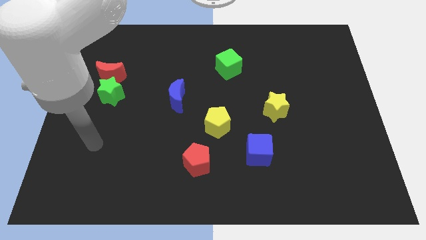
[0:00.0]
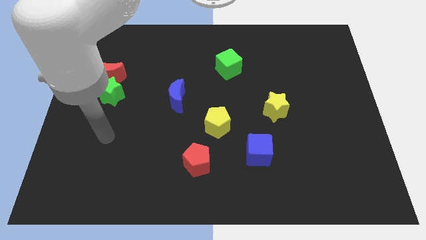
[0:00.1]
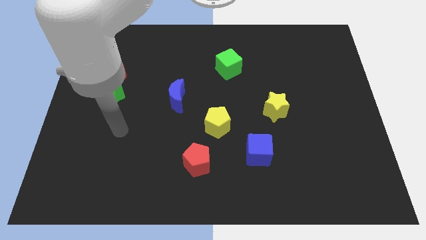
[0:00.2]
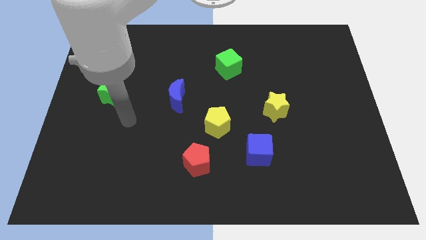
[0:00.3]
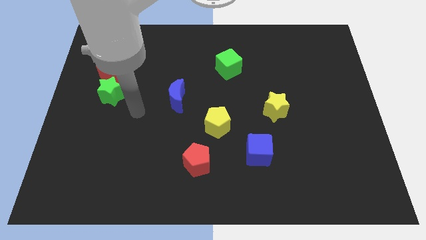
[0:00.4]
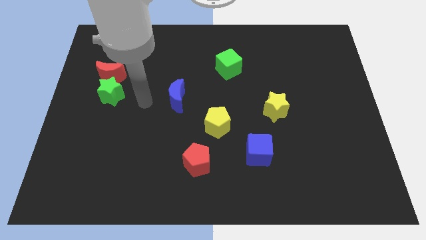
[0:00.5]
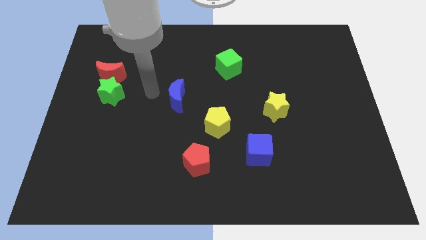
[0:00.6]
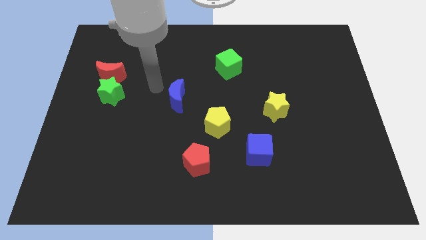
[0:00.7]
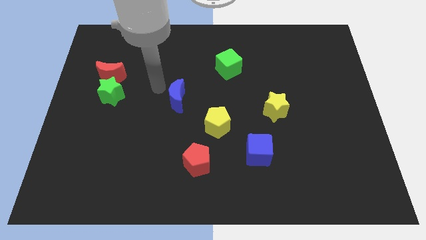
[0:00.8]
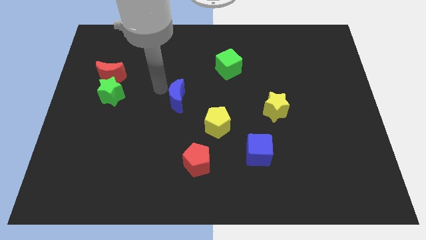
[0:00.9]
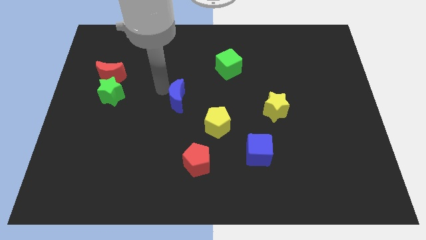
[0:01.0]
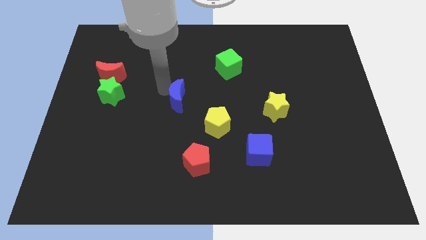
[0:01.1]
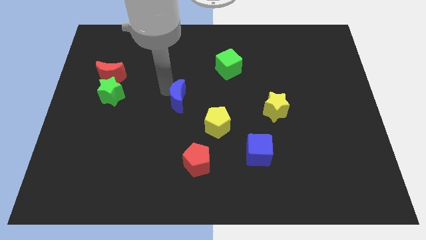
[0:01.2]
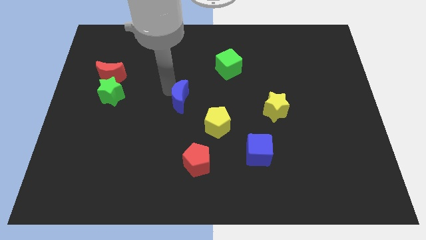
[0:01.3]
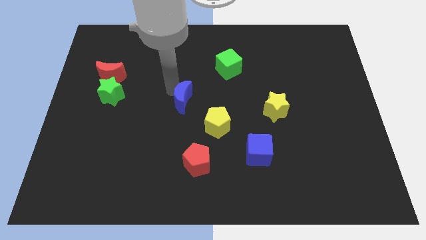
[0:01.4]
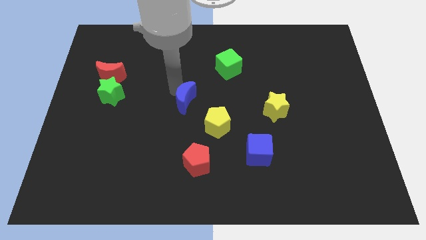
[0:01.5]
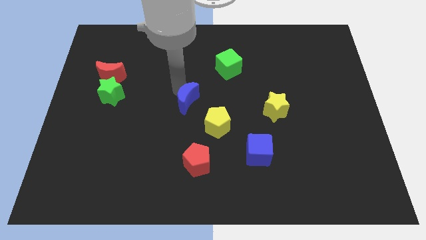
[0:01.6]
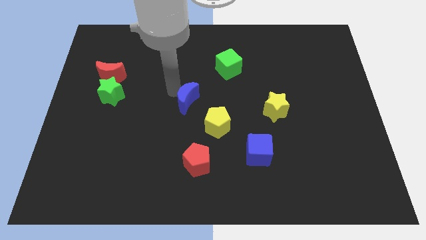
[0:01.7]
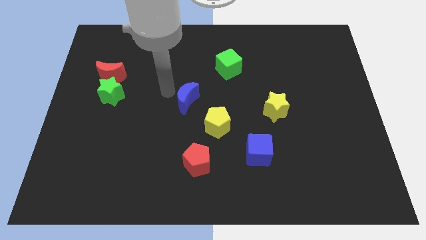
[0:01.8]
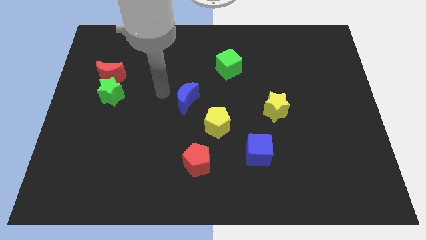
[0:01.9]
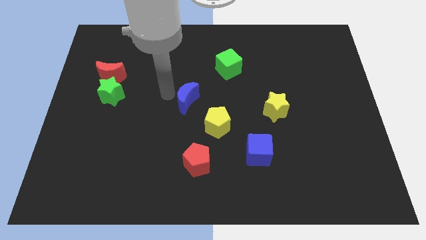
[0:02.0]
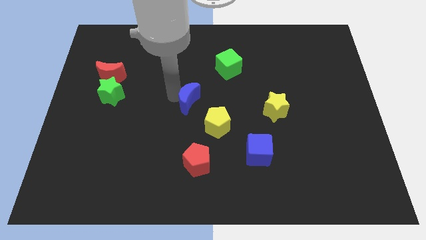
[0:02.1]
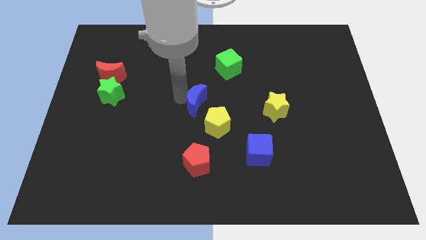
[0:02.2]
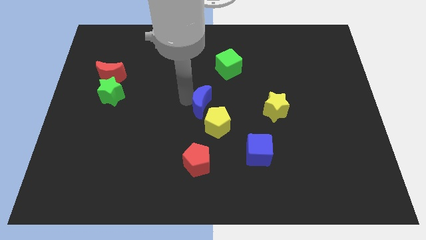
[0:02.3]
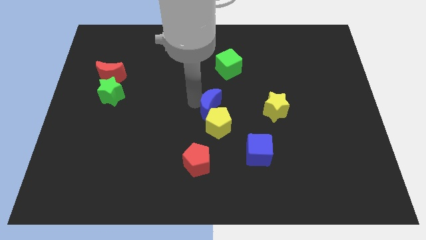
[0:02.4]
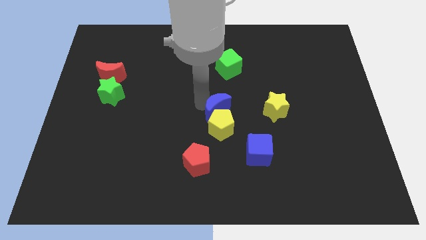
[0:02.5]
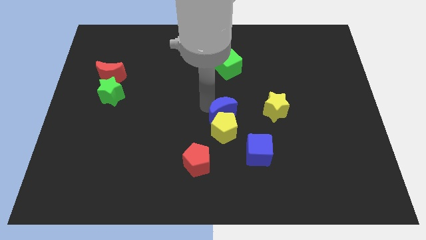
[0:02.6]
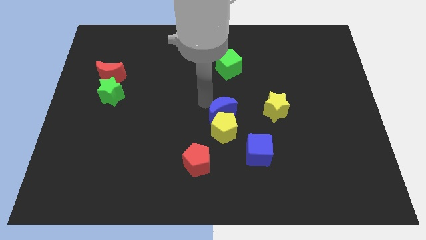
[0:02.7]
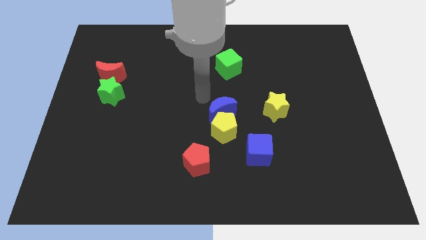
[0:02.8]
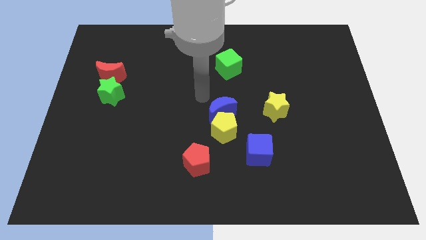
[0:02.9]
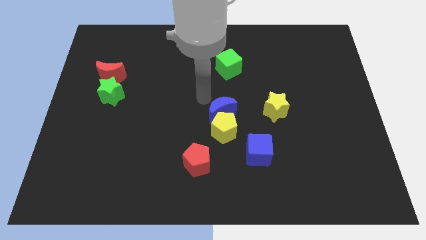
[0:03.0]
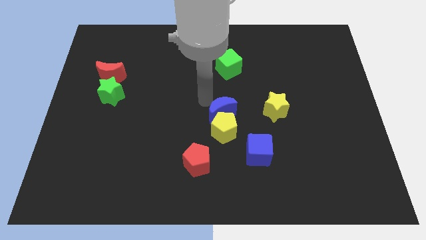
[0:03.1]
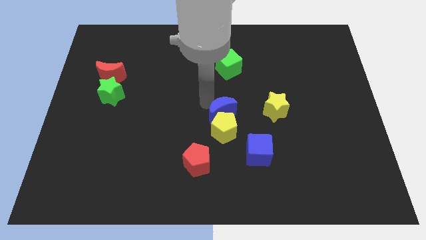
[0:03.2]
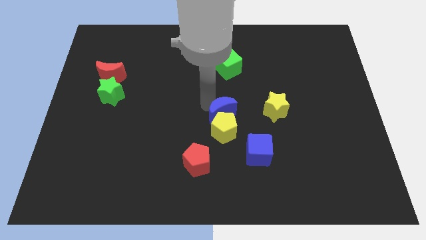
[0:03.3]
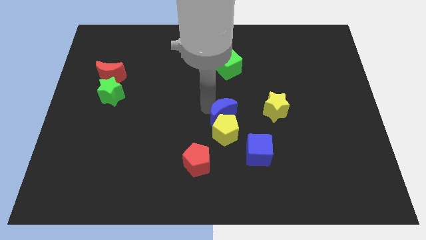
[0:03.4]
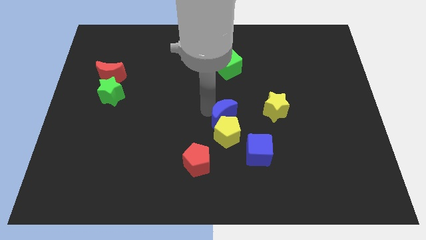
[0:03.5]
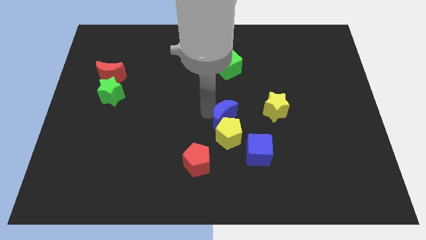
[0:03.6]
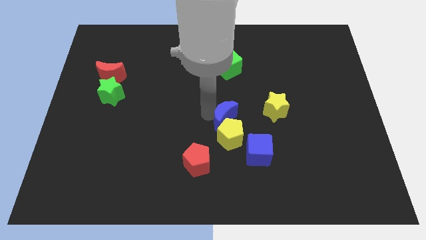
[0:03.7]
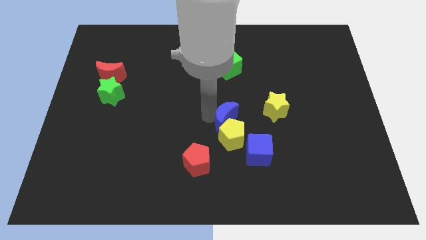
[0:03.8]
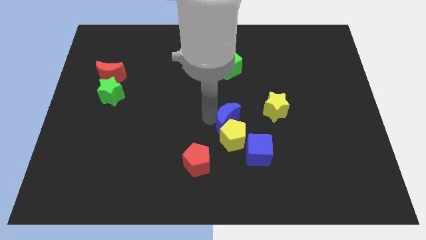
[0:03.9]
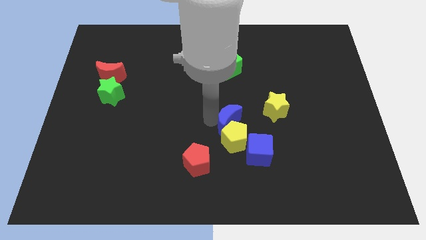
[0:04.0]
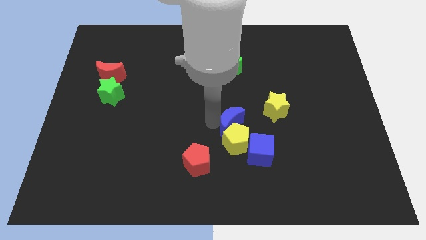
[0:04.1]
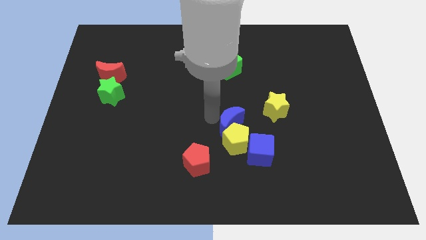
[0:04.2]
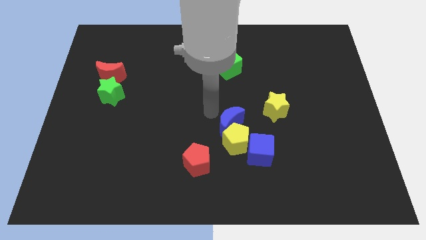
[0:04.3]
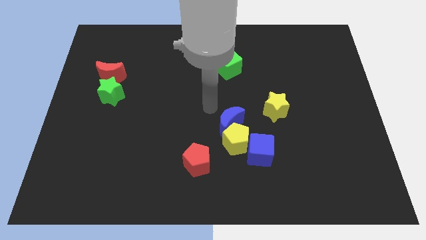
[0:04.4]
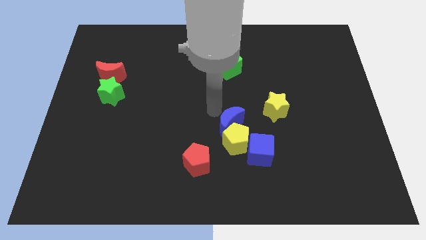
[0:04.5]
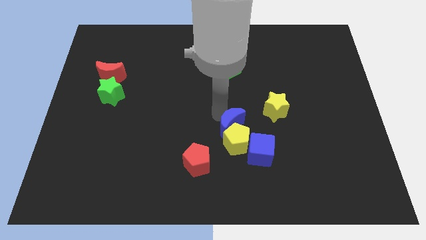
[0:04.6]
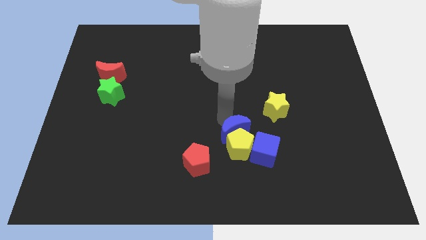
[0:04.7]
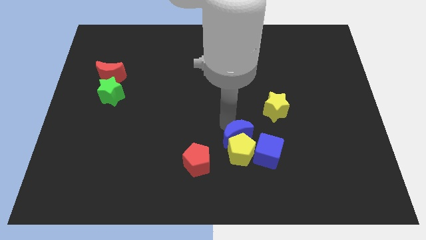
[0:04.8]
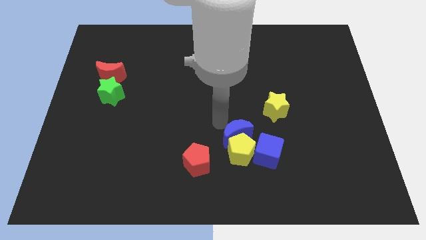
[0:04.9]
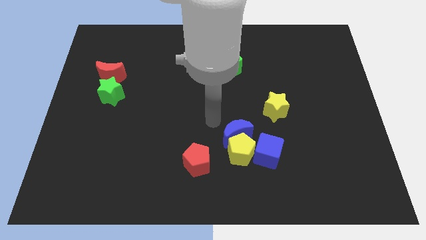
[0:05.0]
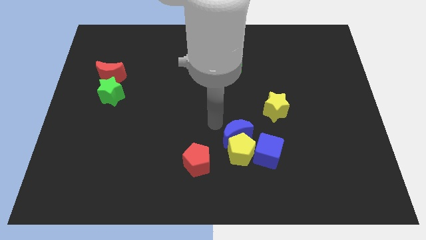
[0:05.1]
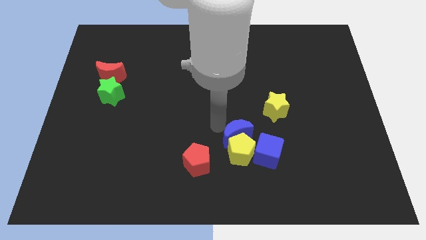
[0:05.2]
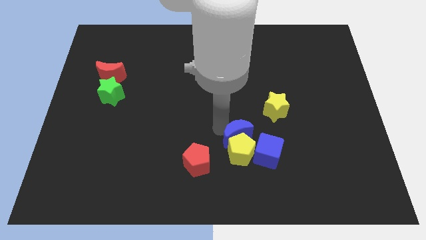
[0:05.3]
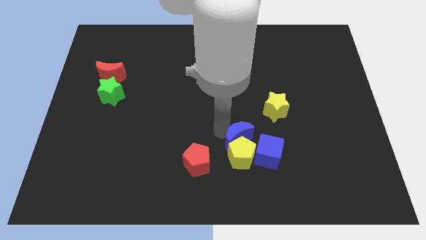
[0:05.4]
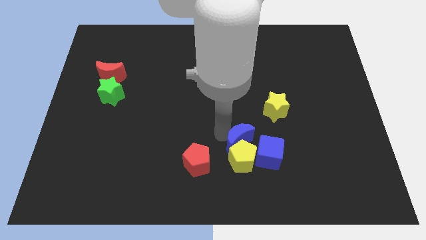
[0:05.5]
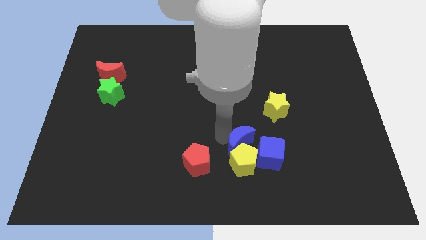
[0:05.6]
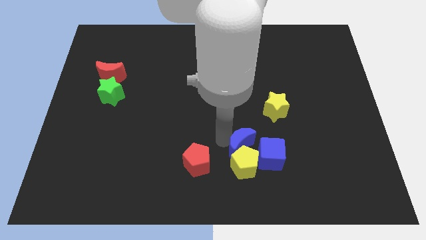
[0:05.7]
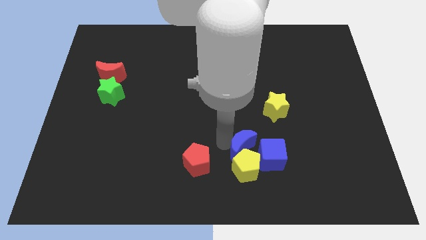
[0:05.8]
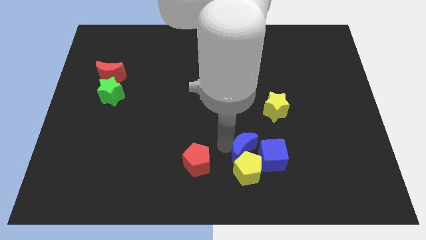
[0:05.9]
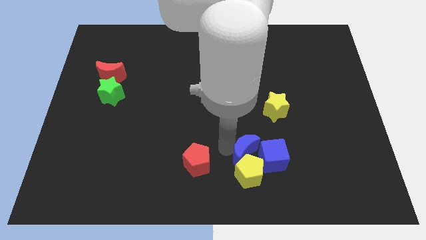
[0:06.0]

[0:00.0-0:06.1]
push the blue moon towards the blue cube

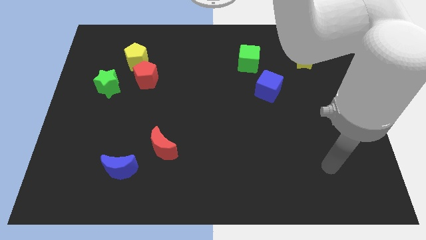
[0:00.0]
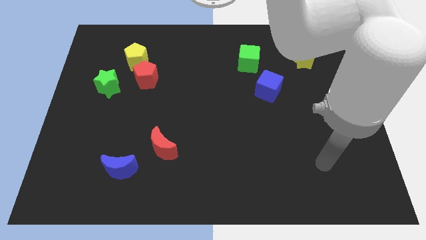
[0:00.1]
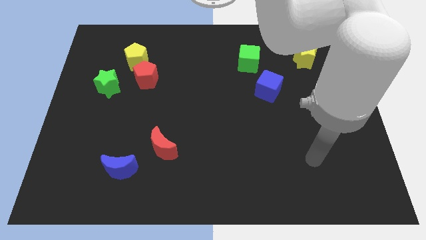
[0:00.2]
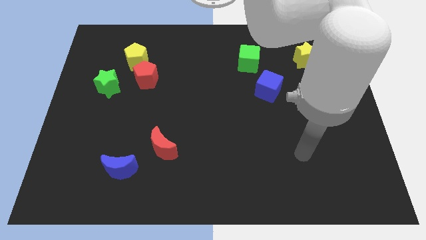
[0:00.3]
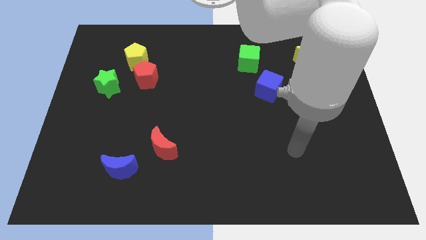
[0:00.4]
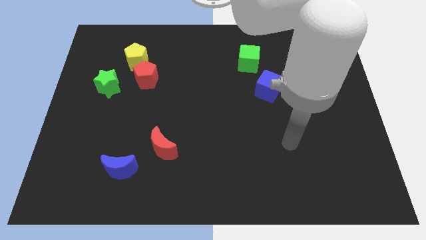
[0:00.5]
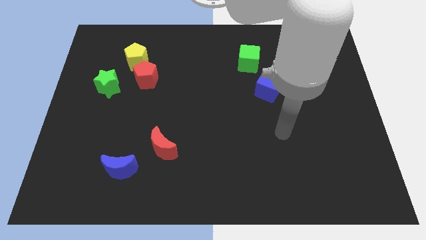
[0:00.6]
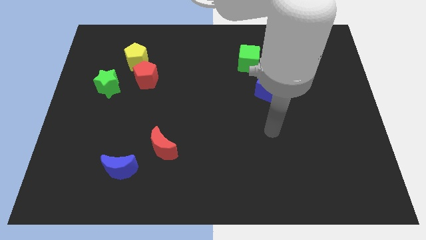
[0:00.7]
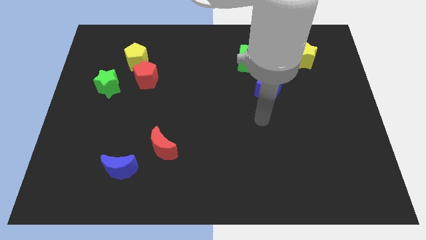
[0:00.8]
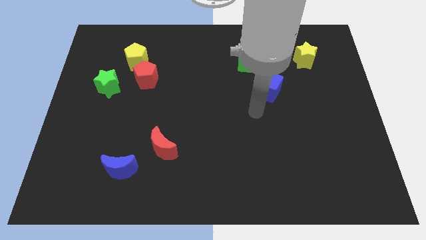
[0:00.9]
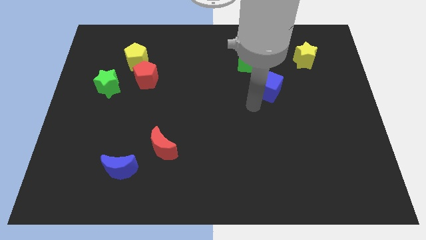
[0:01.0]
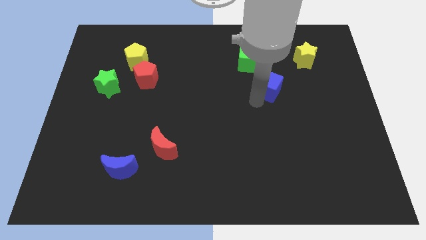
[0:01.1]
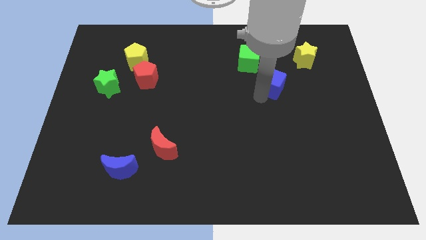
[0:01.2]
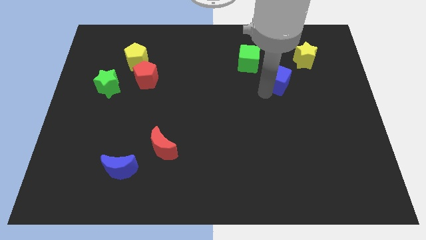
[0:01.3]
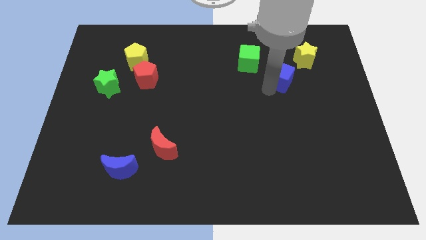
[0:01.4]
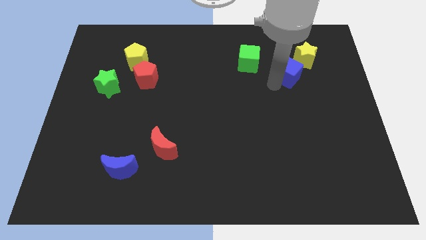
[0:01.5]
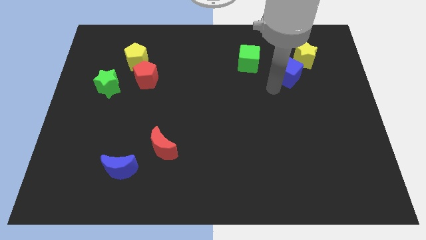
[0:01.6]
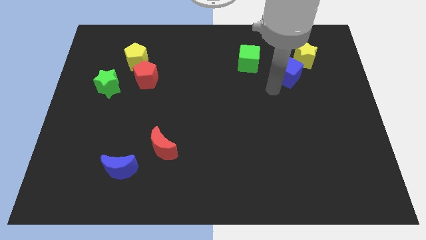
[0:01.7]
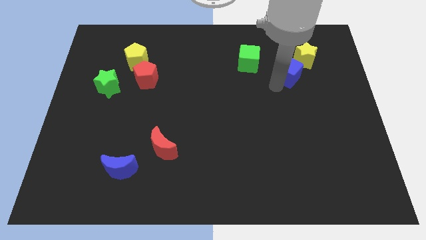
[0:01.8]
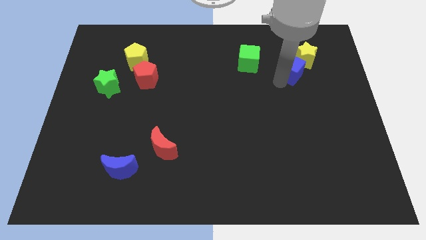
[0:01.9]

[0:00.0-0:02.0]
push the blue cube to the yellow star
